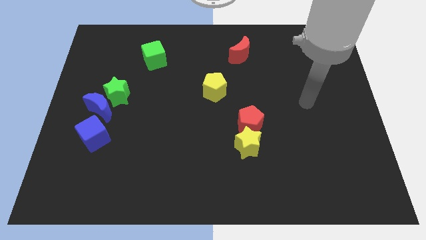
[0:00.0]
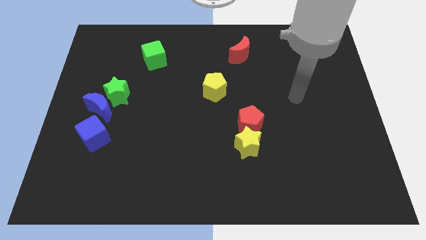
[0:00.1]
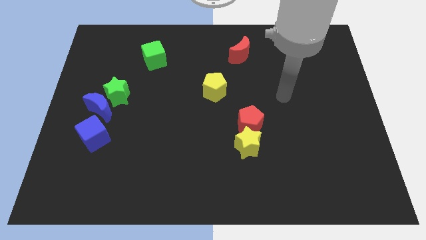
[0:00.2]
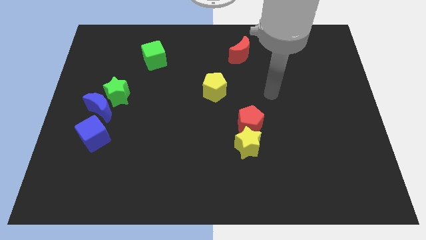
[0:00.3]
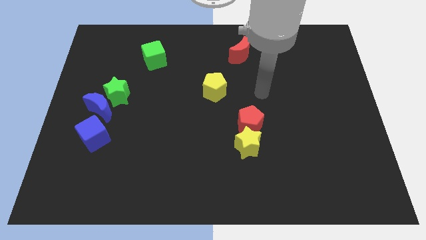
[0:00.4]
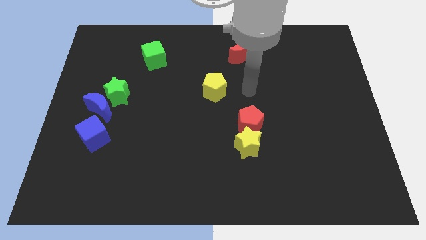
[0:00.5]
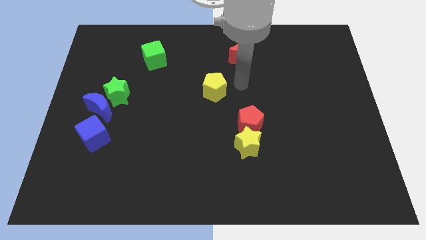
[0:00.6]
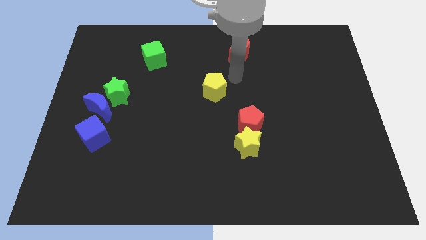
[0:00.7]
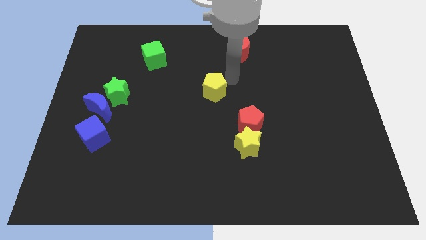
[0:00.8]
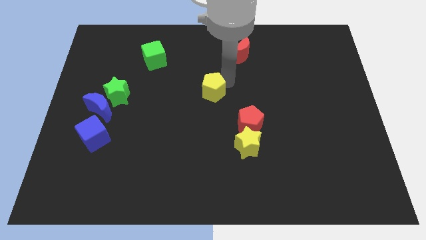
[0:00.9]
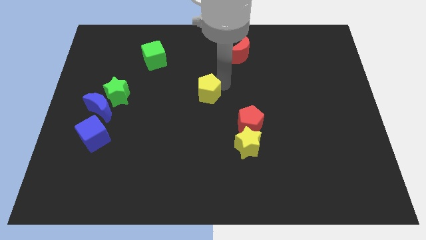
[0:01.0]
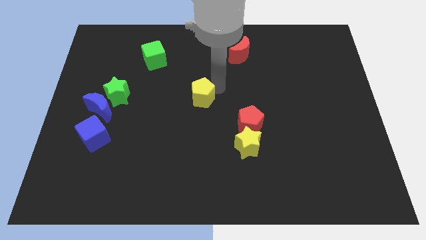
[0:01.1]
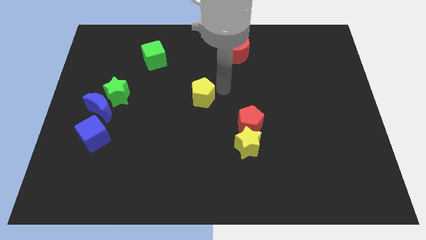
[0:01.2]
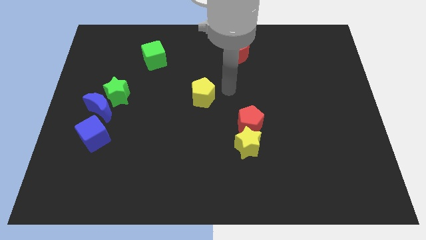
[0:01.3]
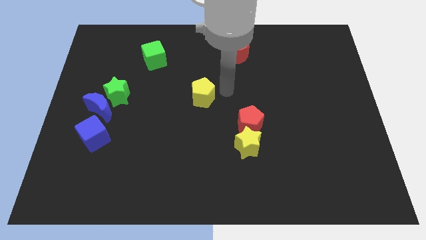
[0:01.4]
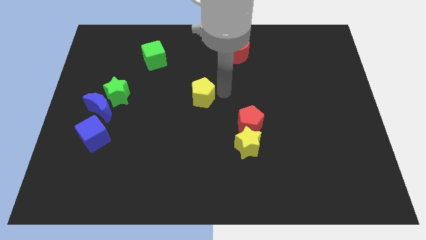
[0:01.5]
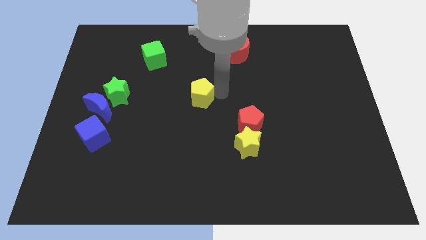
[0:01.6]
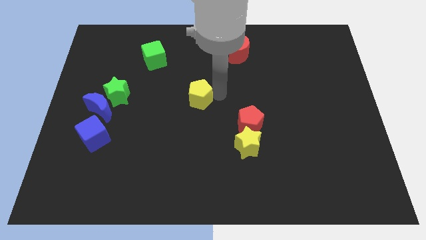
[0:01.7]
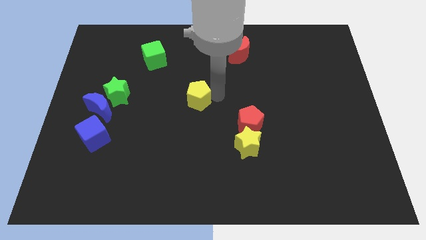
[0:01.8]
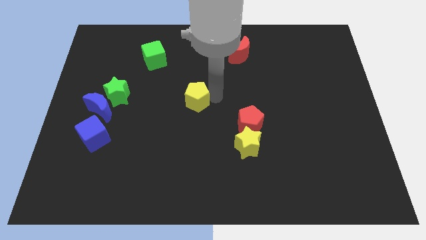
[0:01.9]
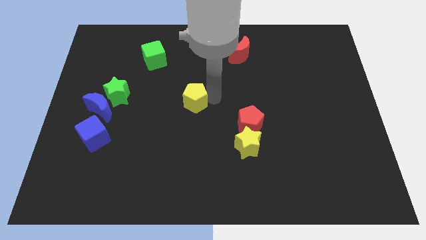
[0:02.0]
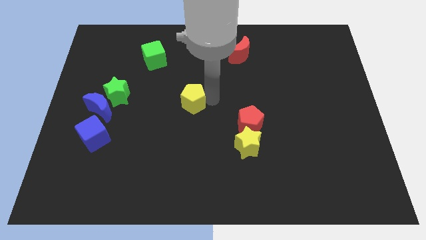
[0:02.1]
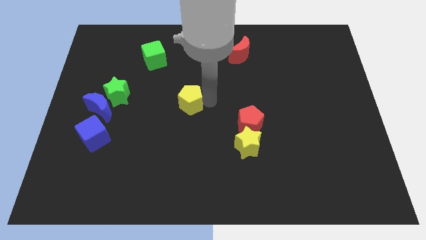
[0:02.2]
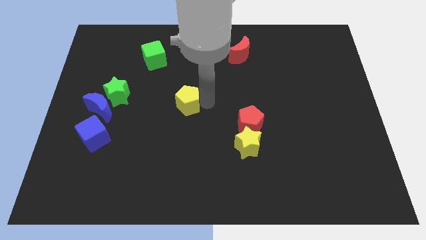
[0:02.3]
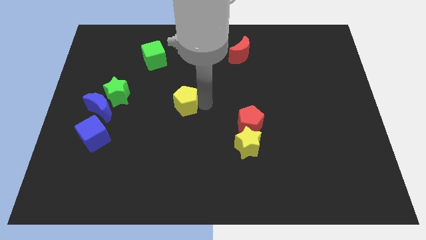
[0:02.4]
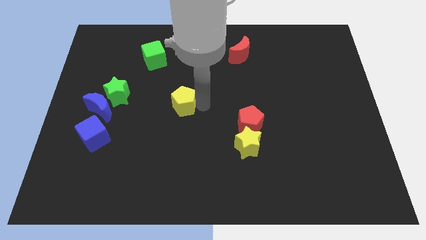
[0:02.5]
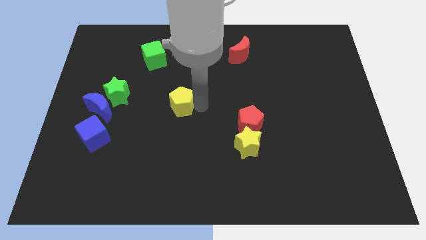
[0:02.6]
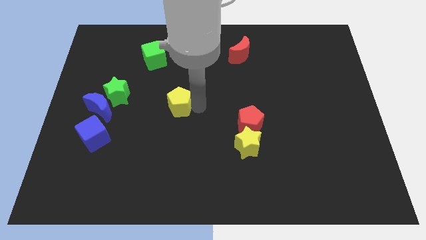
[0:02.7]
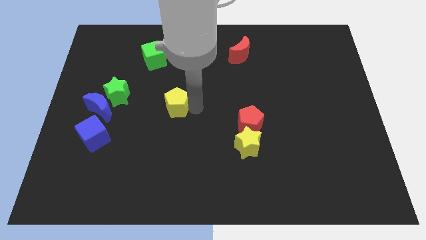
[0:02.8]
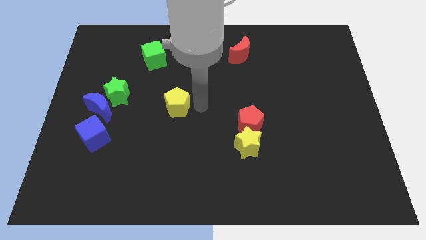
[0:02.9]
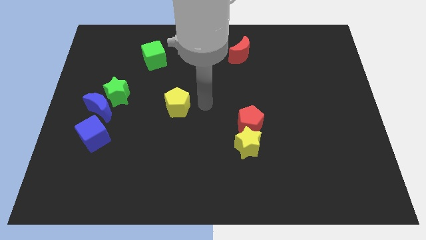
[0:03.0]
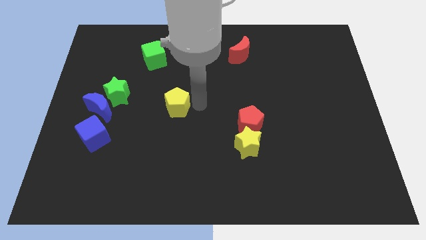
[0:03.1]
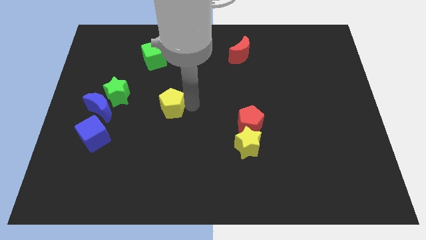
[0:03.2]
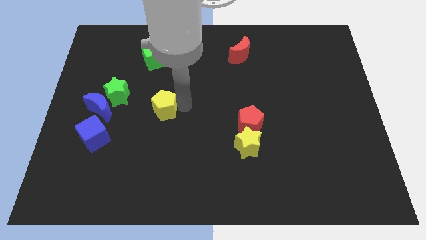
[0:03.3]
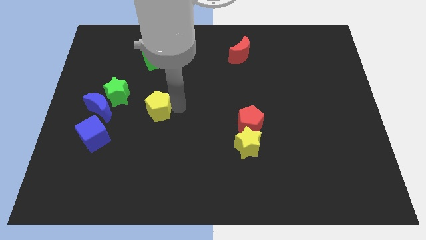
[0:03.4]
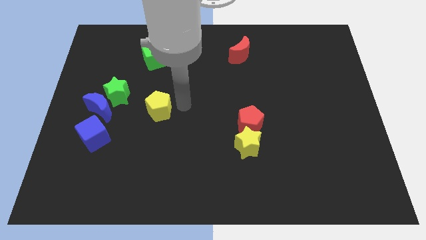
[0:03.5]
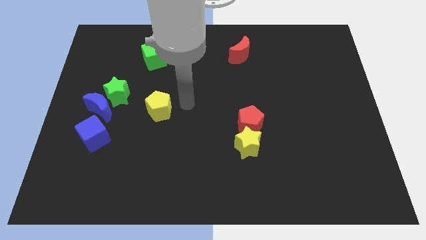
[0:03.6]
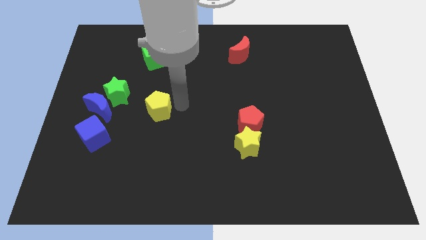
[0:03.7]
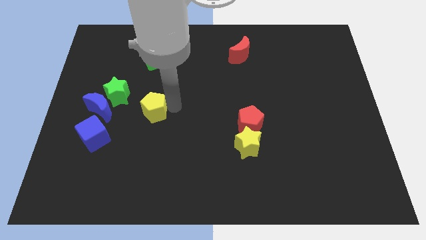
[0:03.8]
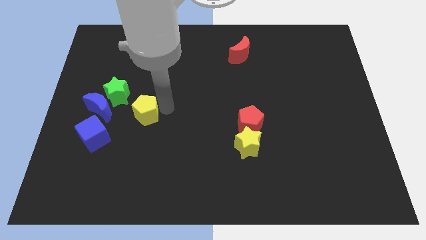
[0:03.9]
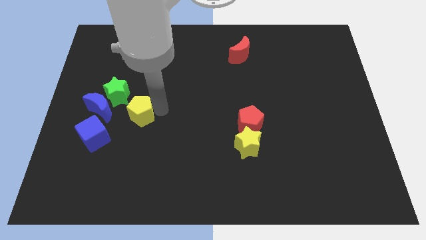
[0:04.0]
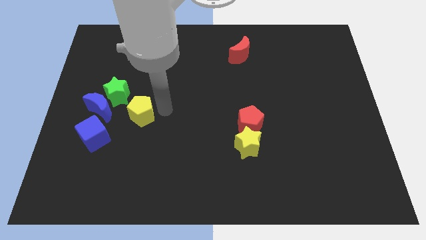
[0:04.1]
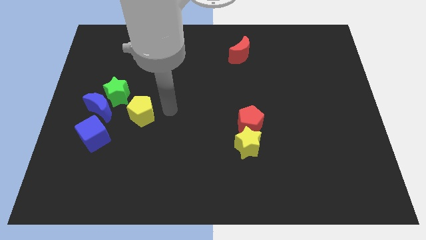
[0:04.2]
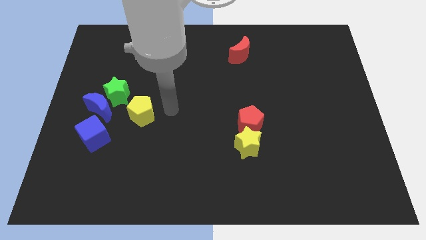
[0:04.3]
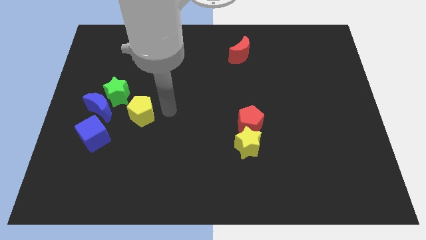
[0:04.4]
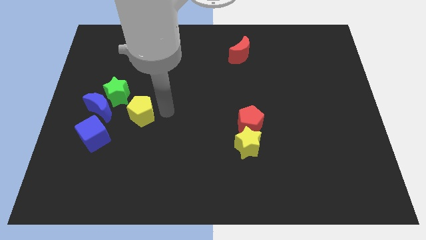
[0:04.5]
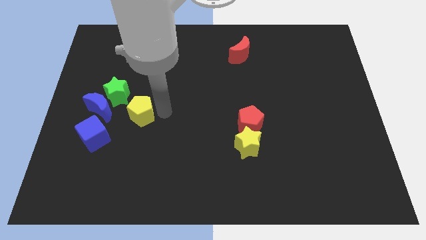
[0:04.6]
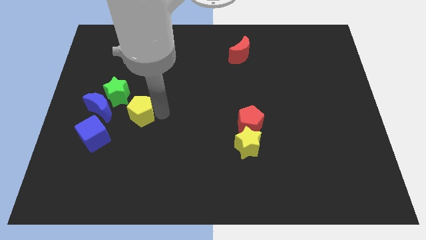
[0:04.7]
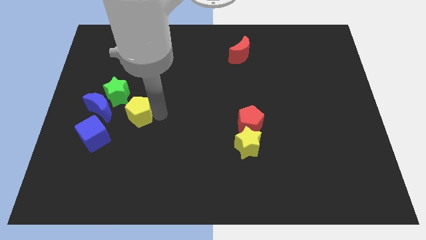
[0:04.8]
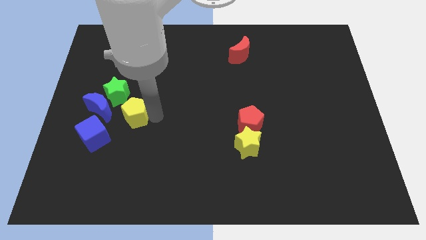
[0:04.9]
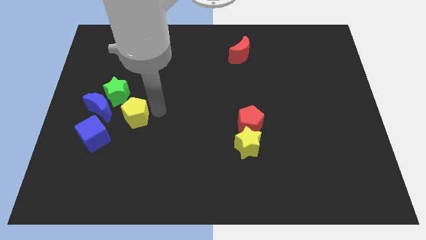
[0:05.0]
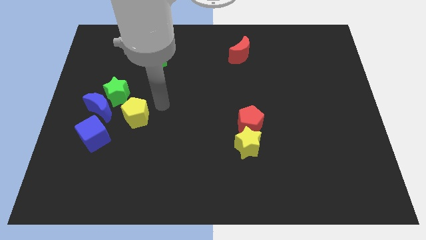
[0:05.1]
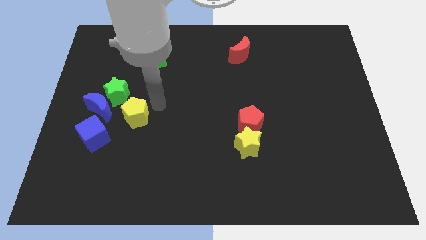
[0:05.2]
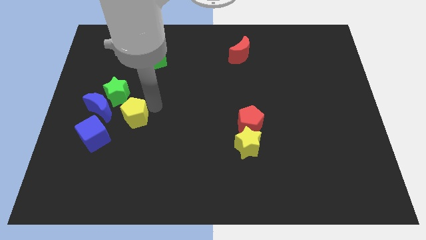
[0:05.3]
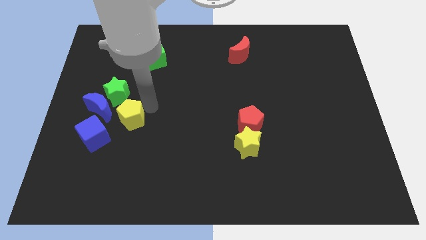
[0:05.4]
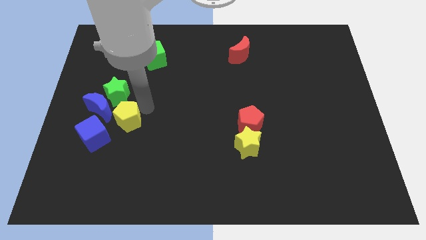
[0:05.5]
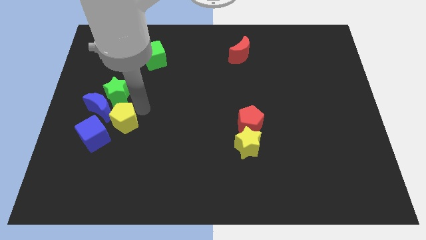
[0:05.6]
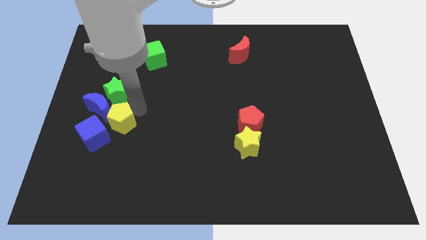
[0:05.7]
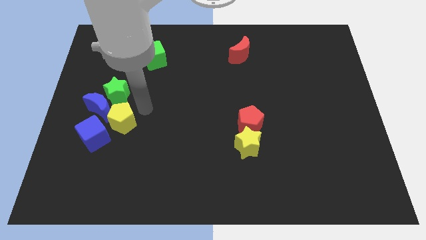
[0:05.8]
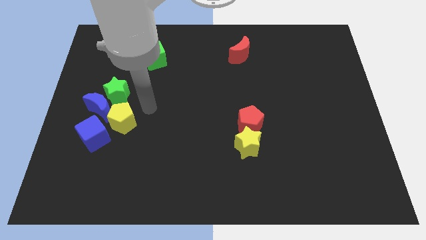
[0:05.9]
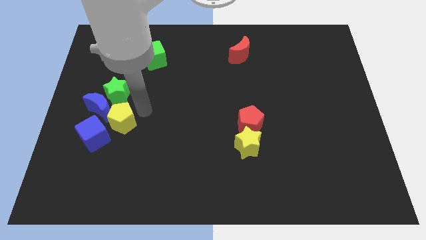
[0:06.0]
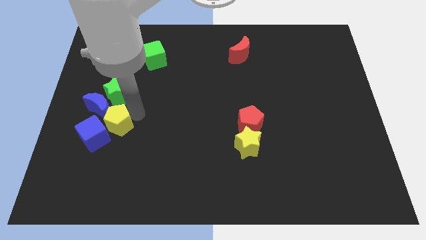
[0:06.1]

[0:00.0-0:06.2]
put the yellow pentagon to the blue cube

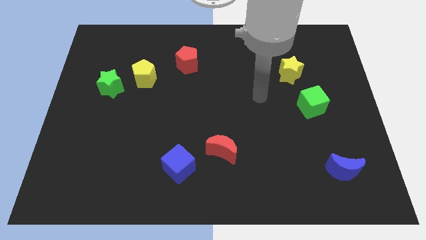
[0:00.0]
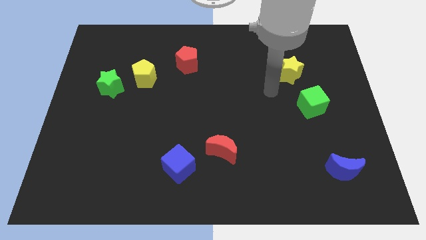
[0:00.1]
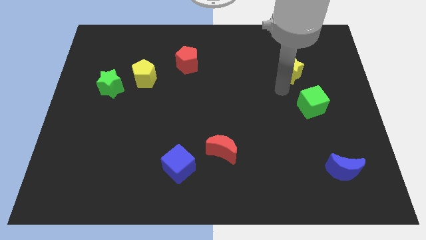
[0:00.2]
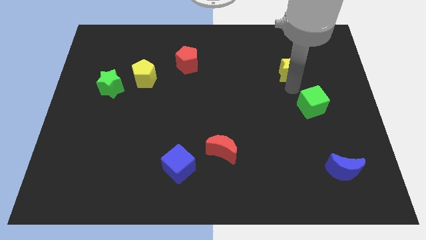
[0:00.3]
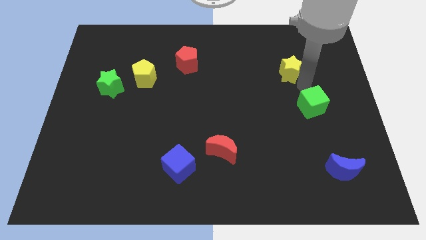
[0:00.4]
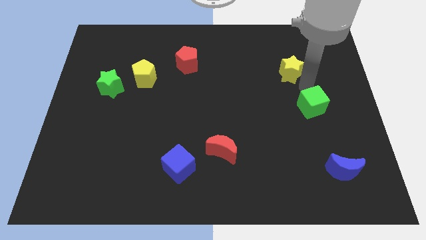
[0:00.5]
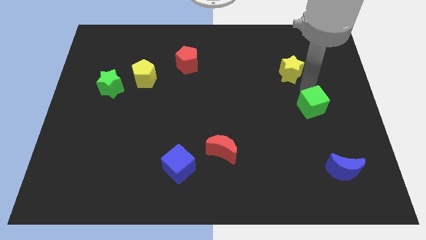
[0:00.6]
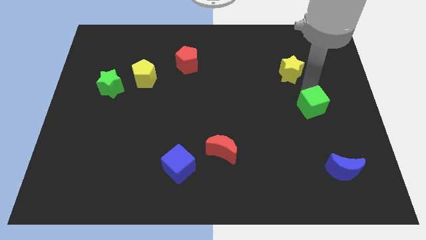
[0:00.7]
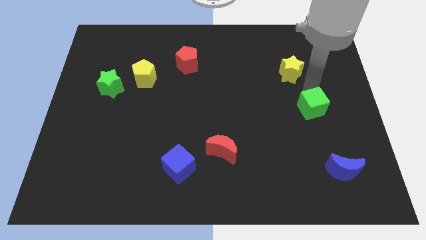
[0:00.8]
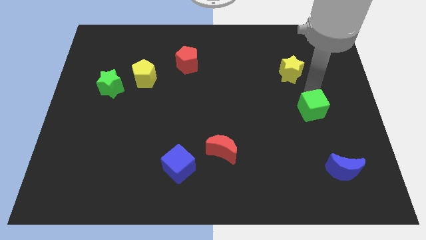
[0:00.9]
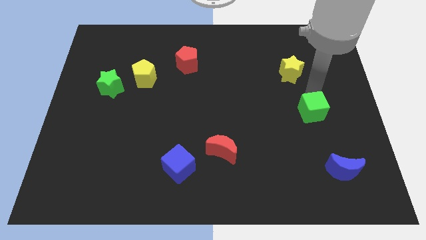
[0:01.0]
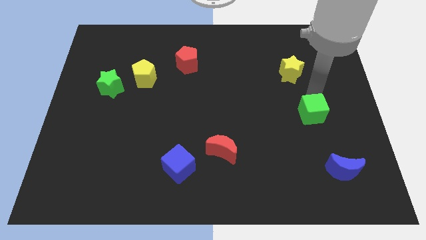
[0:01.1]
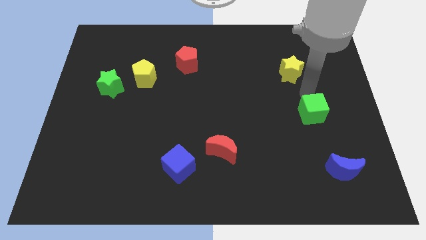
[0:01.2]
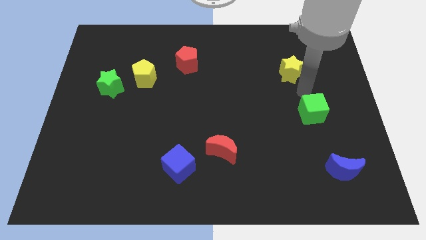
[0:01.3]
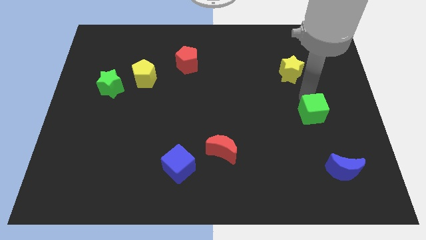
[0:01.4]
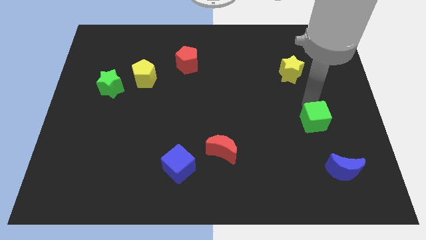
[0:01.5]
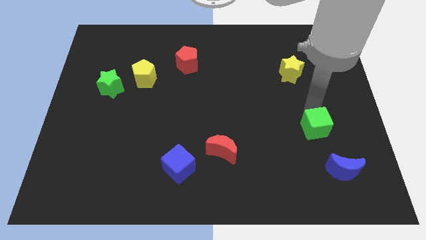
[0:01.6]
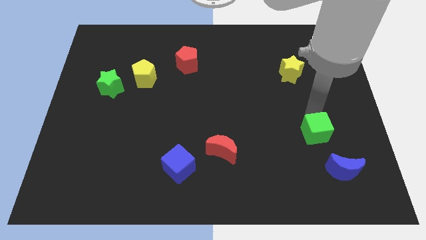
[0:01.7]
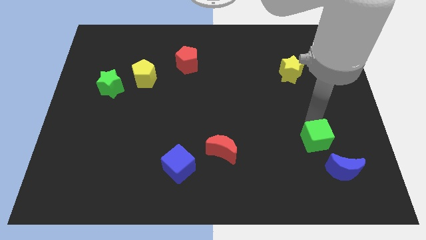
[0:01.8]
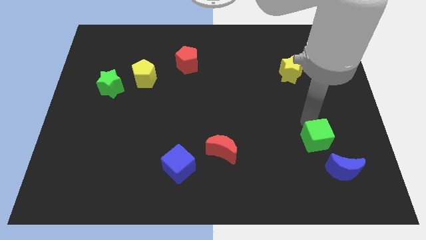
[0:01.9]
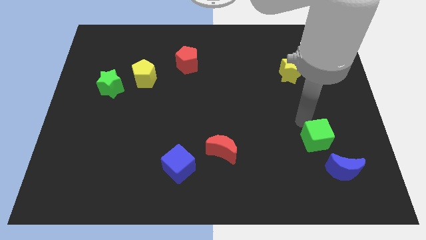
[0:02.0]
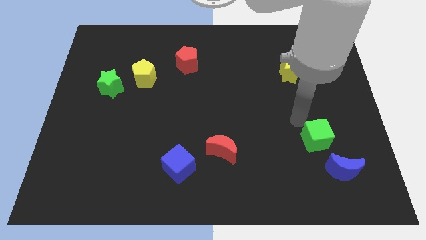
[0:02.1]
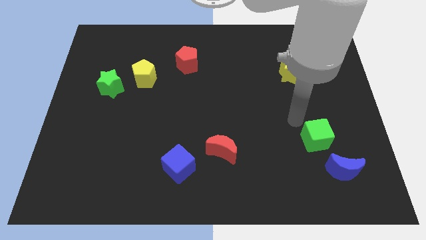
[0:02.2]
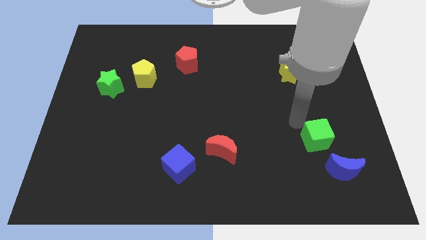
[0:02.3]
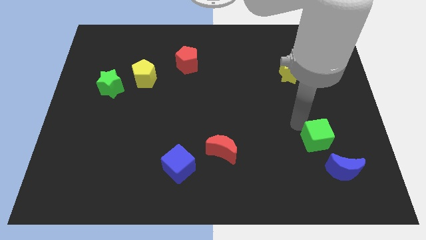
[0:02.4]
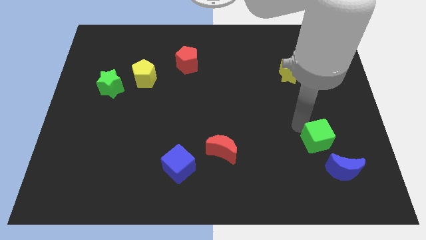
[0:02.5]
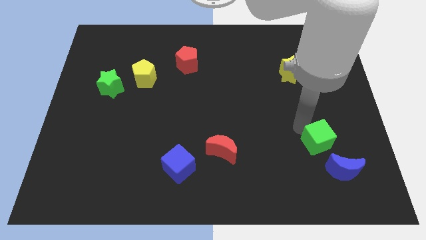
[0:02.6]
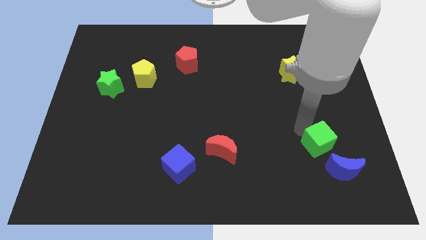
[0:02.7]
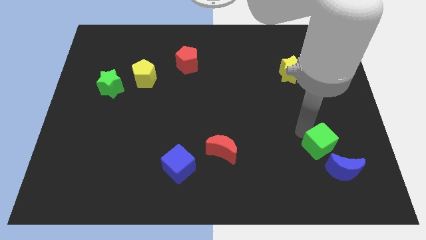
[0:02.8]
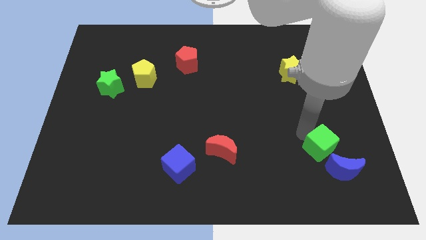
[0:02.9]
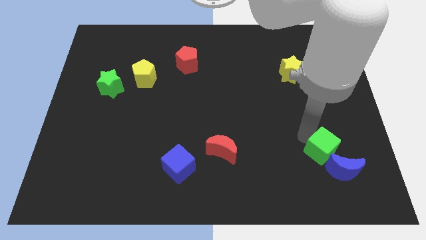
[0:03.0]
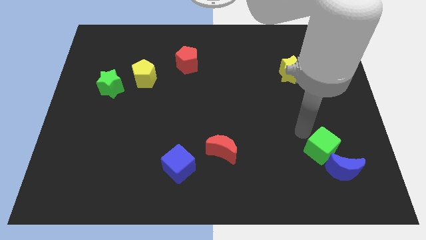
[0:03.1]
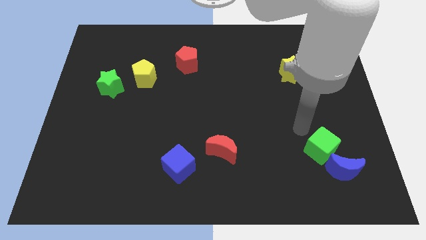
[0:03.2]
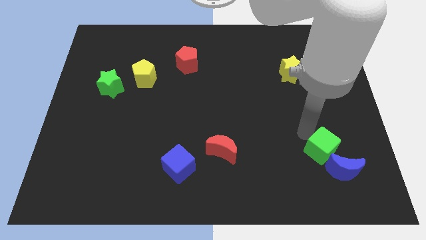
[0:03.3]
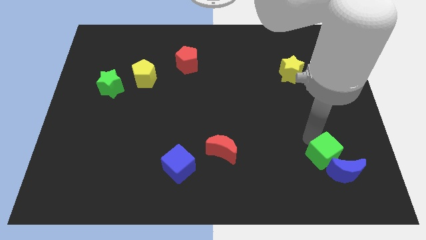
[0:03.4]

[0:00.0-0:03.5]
push the green cube to the blue moon
